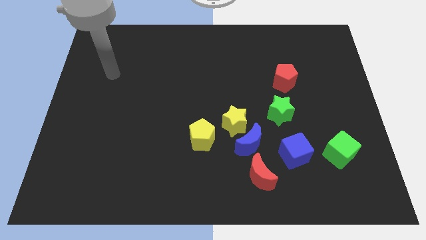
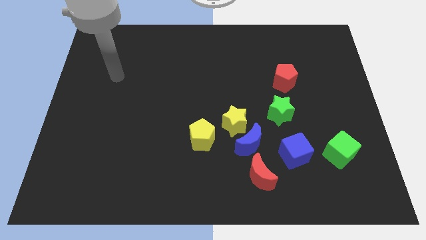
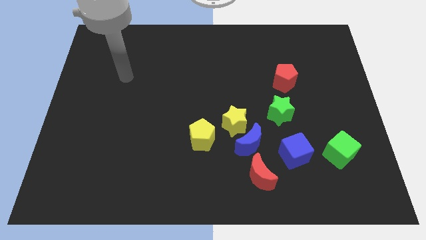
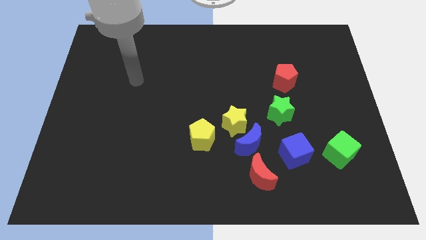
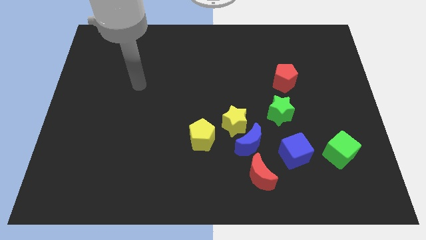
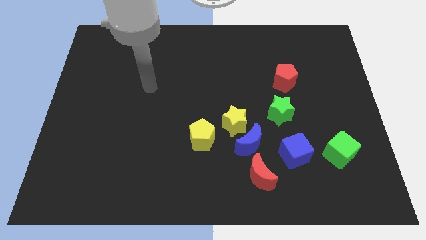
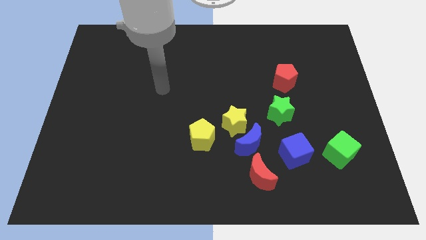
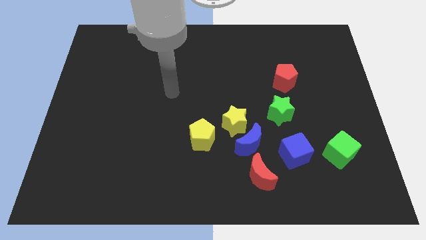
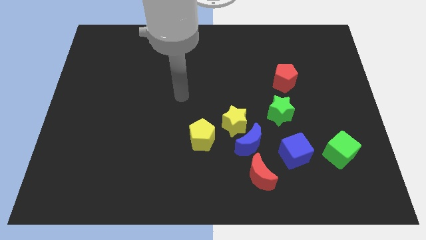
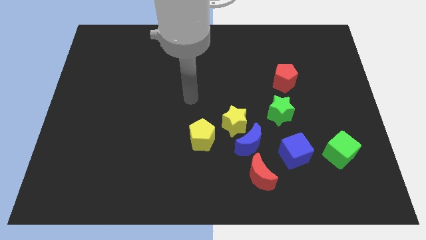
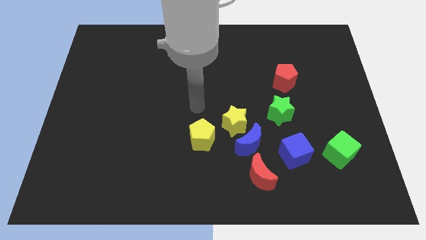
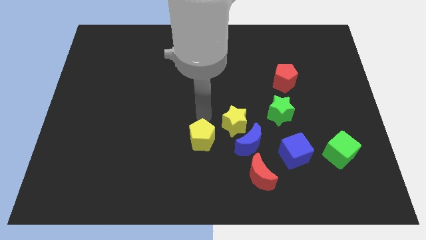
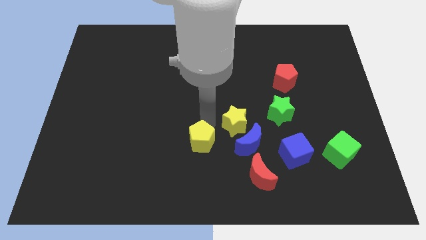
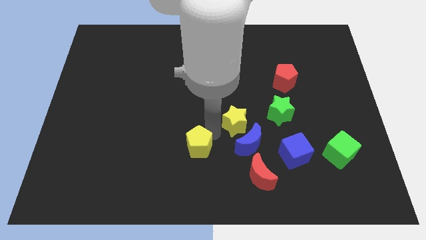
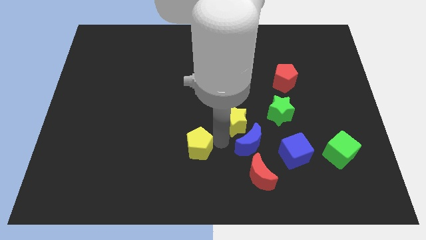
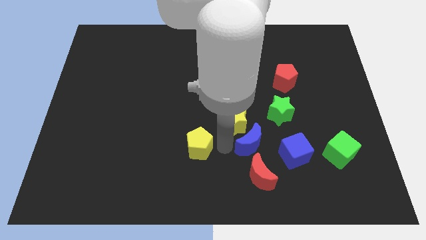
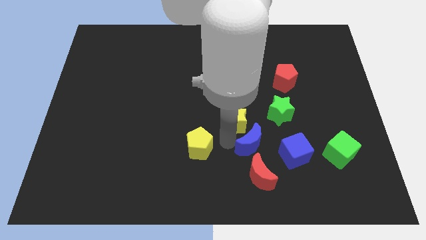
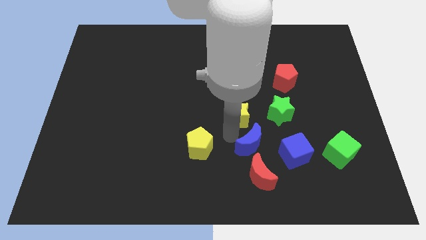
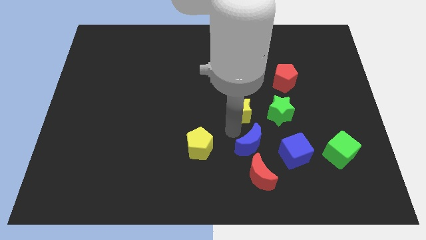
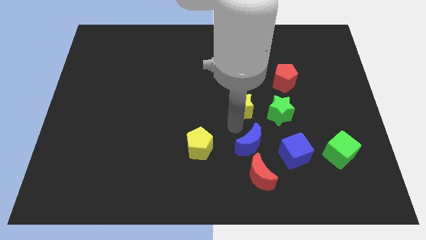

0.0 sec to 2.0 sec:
move the yellow star away from the blue moon and yellow pentagon

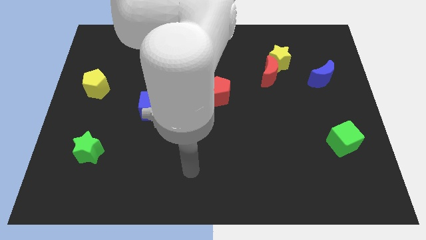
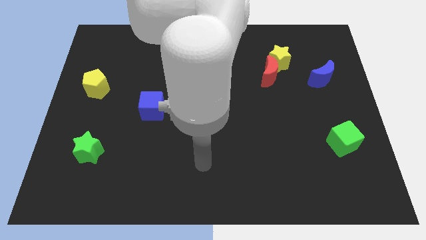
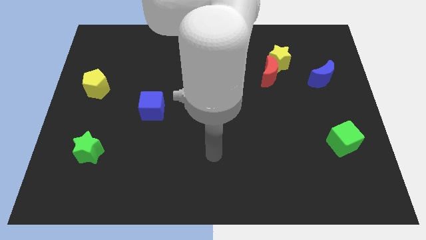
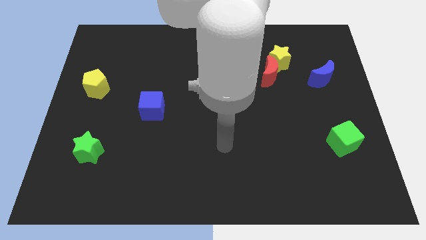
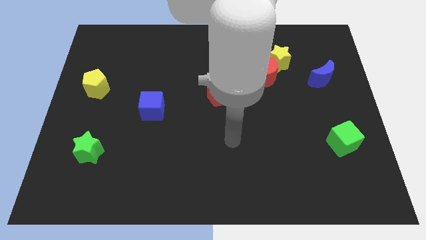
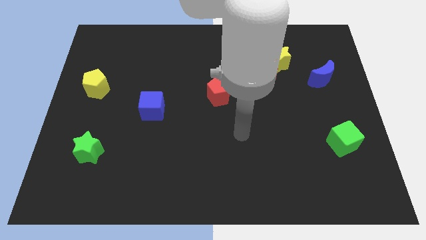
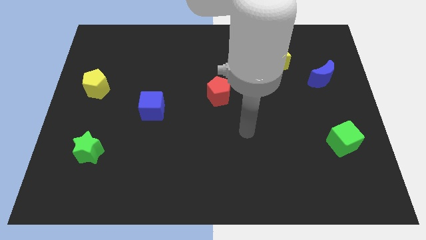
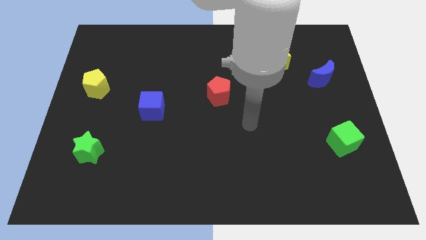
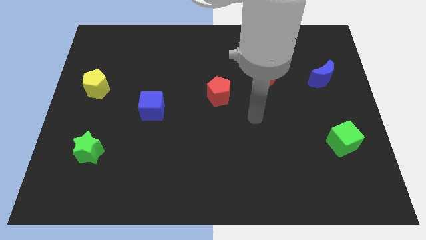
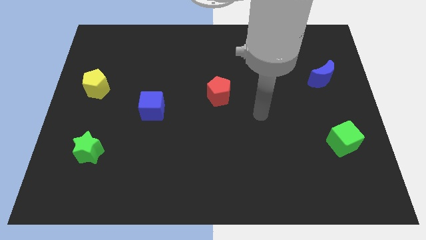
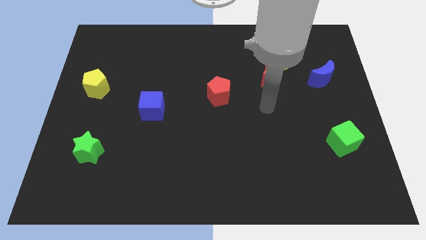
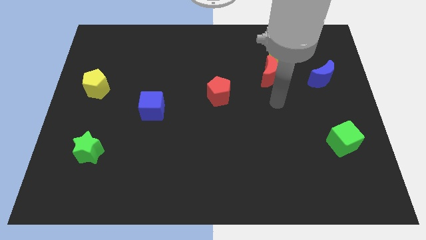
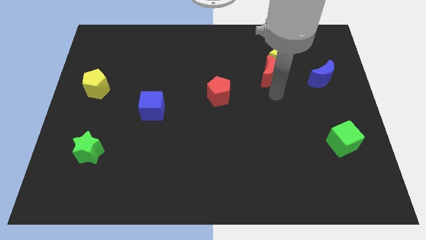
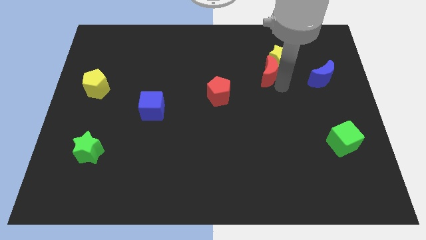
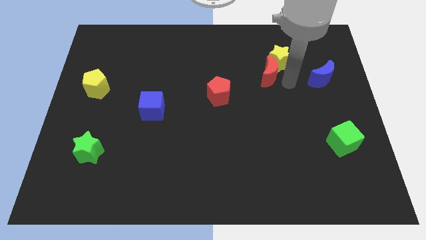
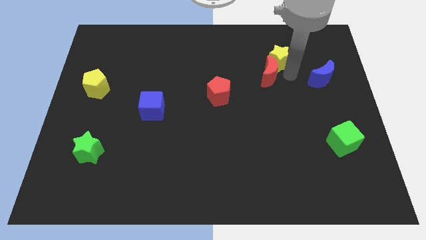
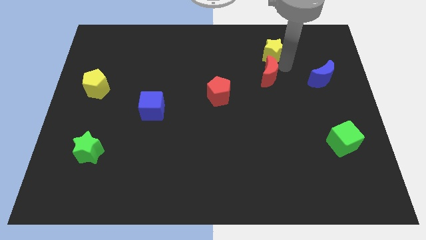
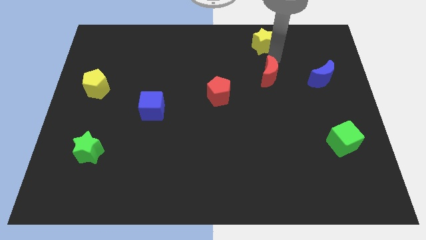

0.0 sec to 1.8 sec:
move the red moon away from the yellow star

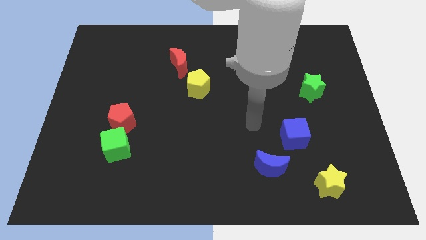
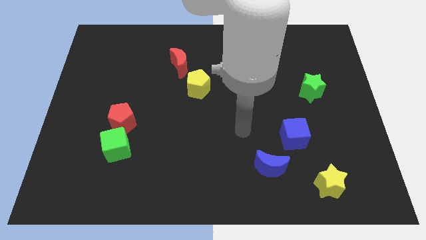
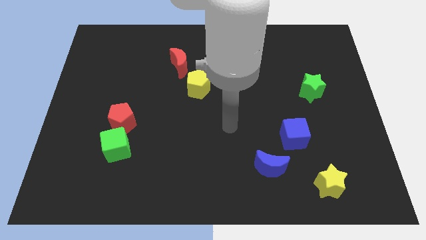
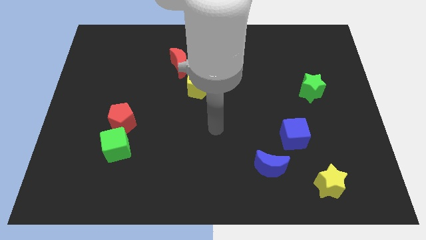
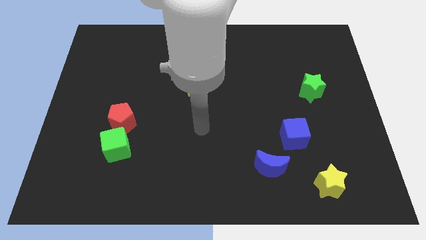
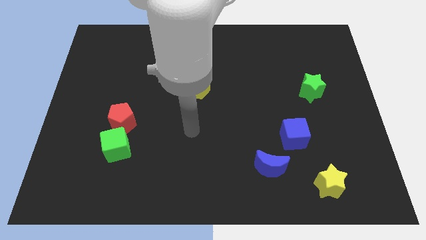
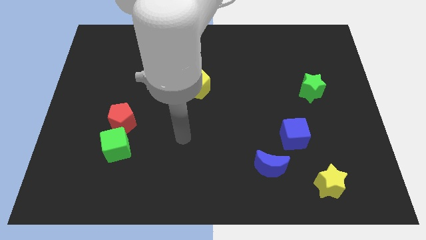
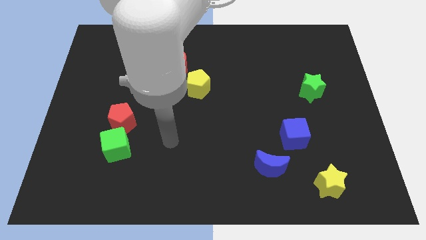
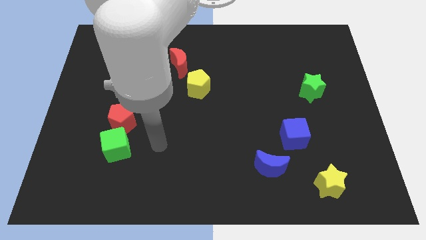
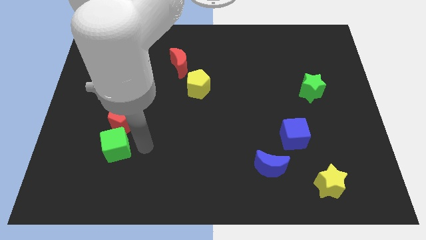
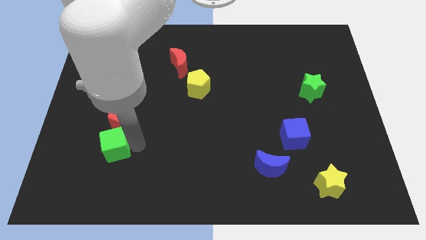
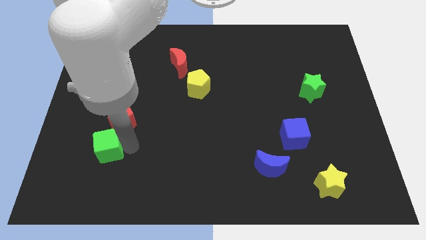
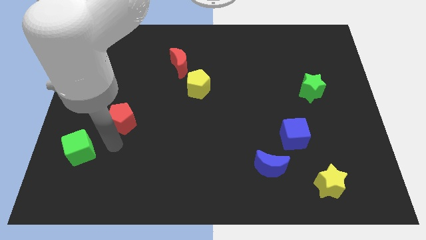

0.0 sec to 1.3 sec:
separate the red pentagon from the green cube

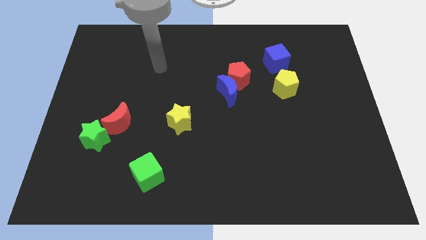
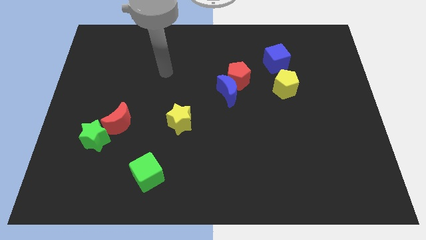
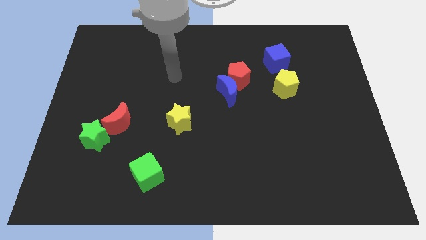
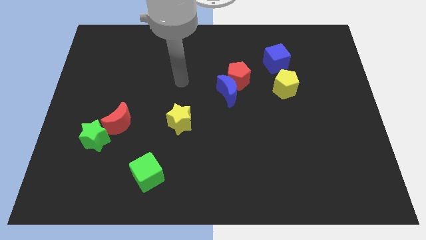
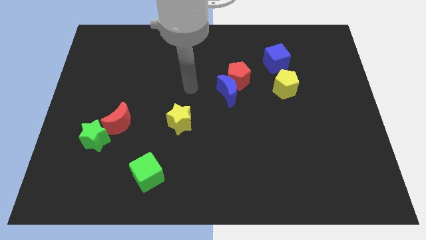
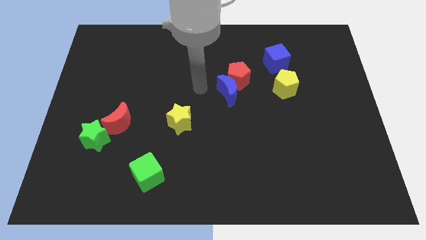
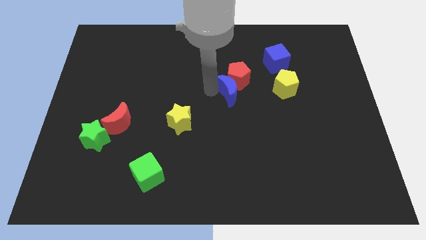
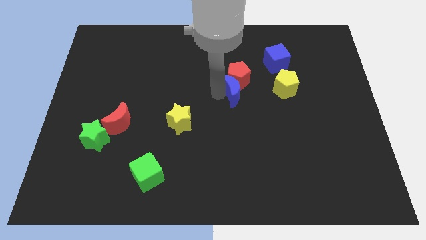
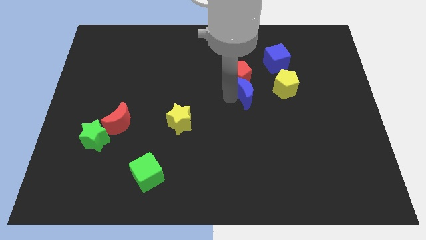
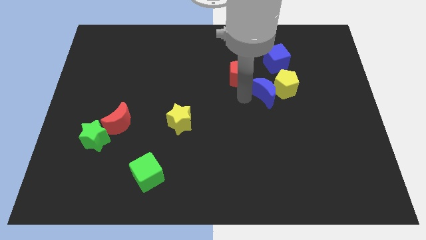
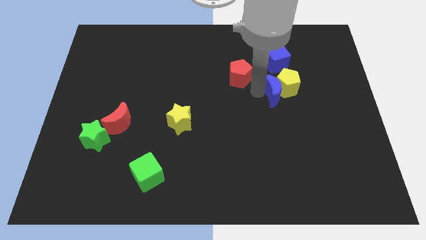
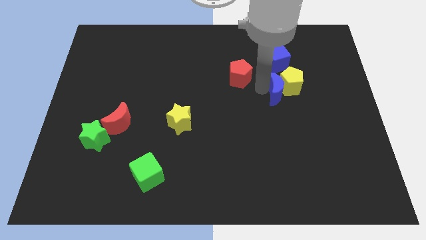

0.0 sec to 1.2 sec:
move the red pentagon away from the blue moon

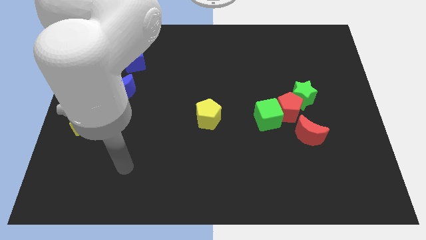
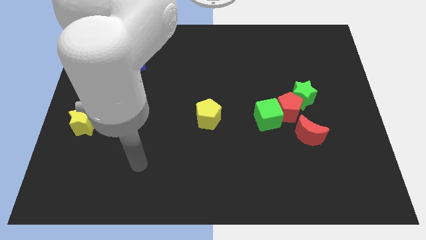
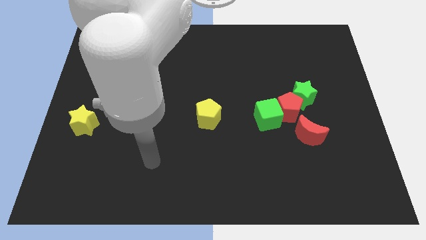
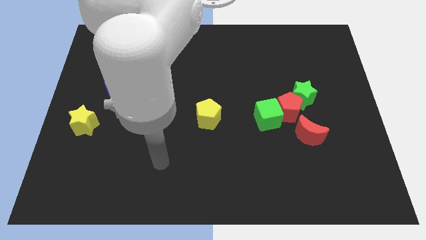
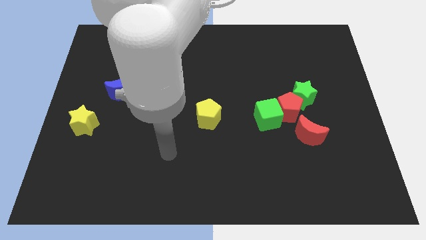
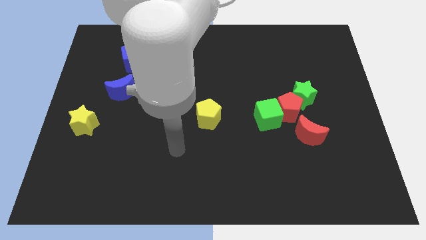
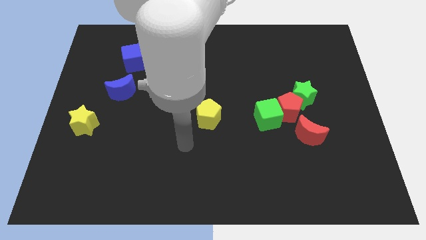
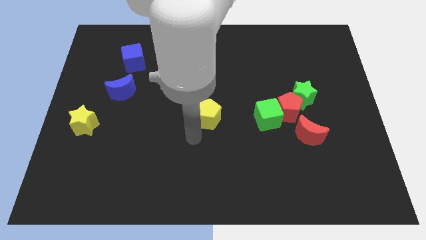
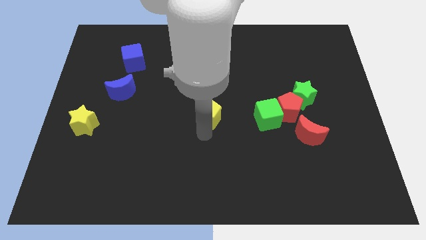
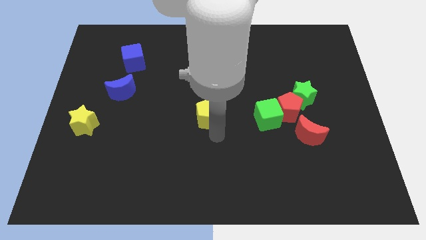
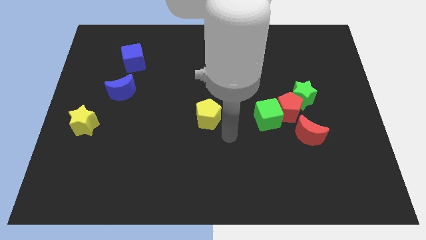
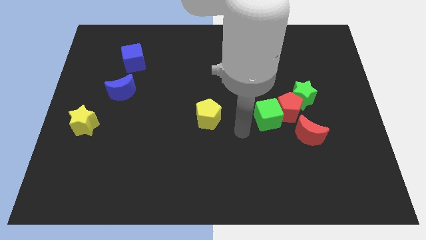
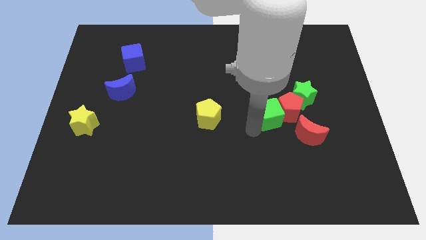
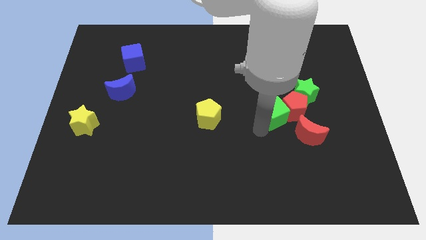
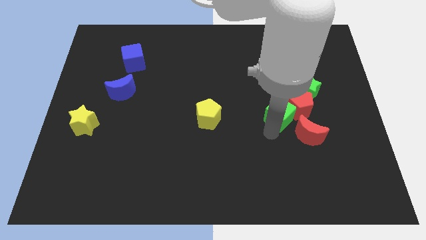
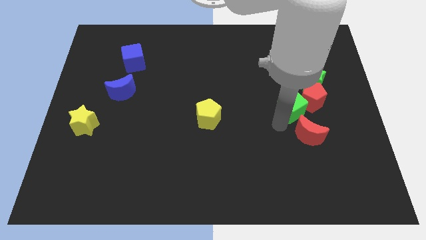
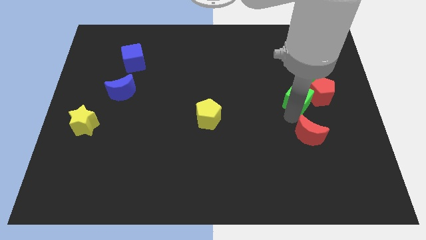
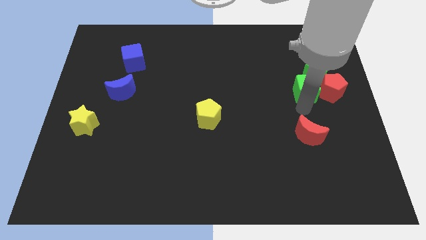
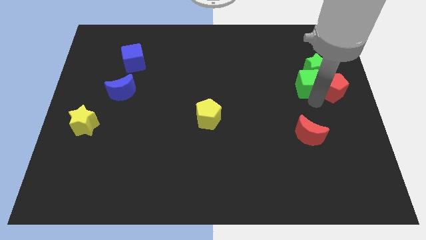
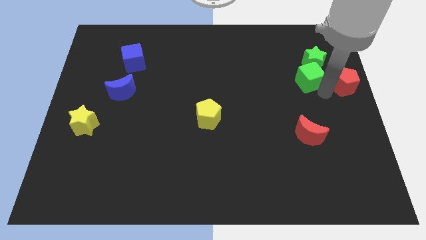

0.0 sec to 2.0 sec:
pull the green star apart from the red pentagon

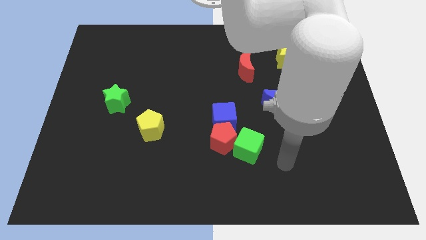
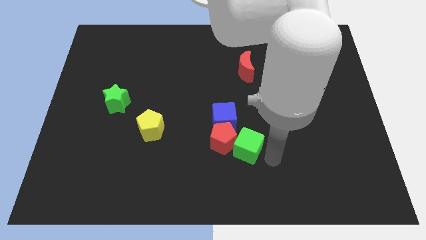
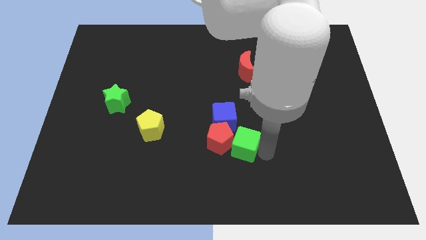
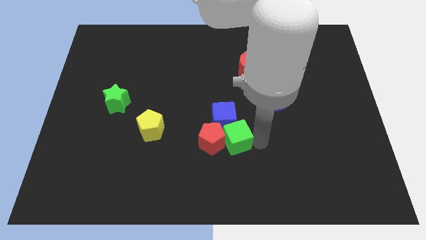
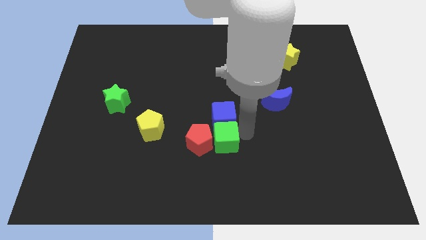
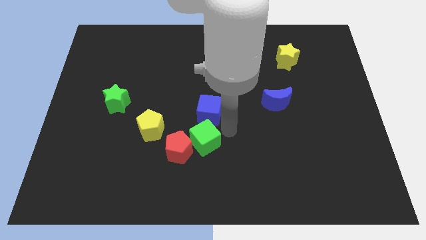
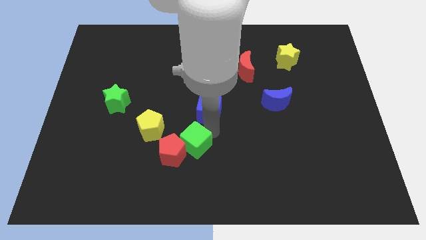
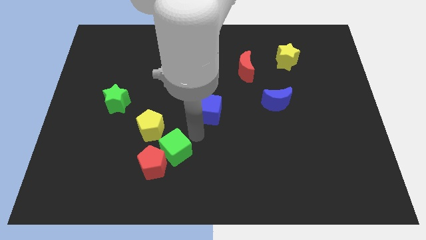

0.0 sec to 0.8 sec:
separate the red pentagon from the green cube and blue cube

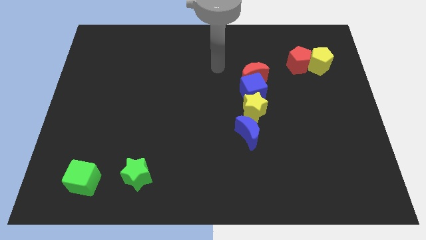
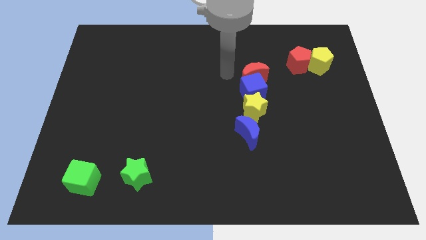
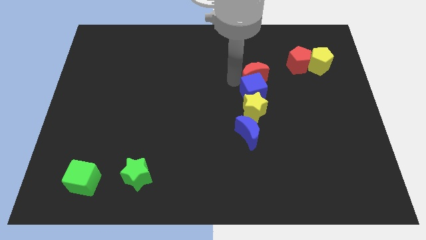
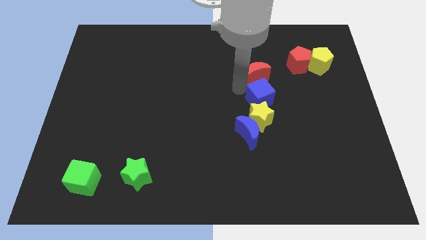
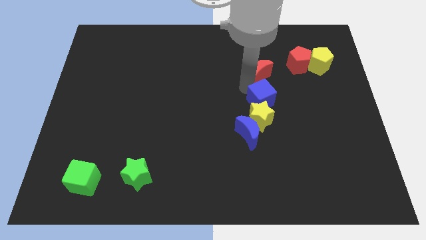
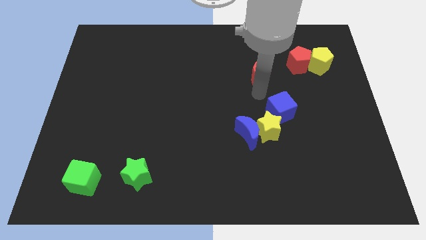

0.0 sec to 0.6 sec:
move the red moon away from the blue cube
